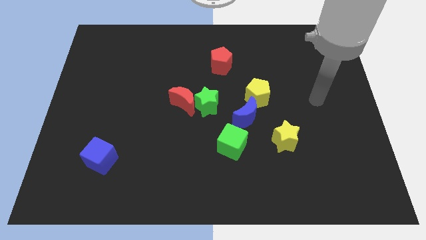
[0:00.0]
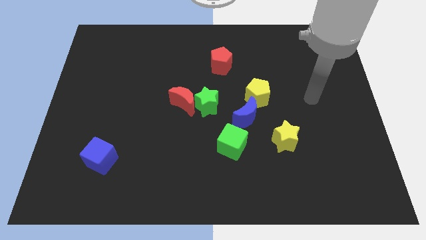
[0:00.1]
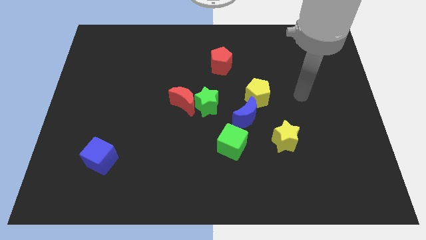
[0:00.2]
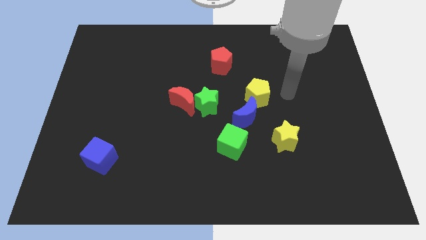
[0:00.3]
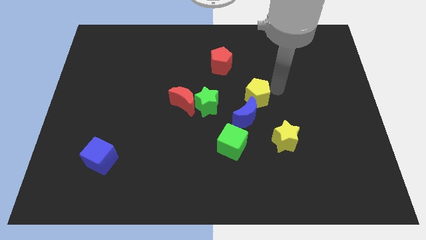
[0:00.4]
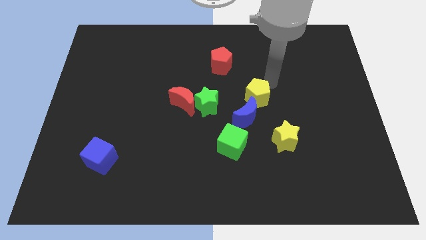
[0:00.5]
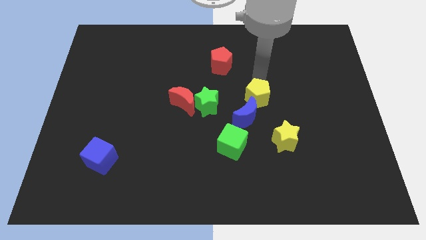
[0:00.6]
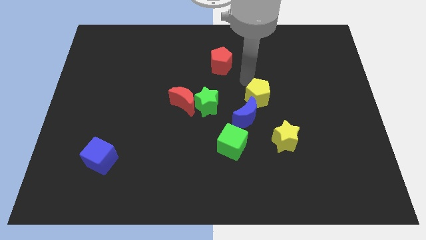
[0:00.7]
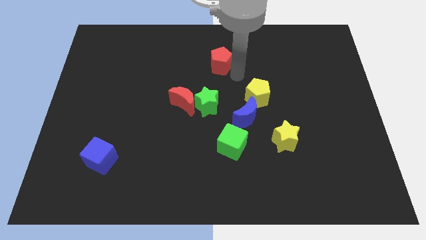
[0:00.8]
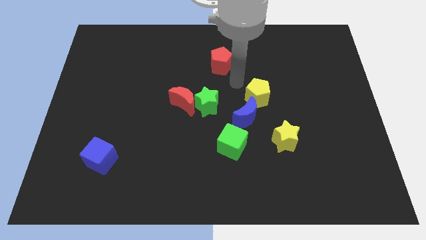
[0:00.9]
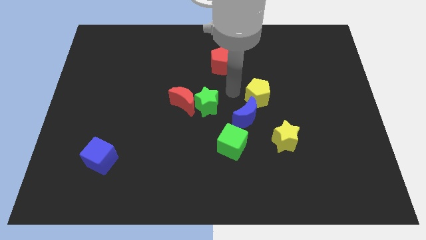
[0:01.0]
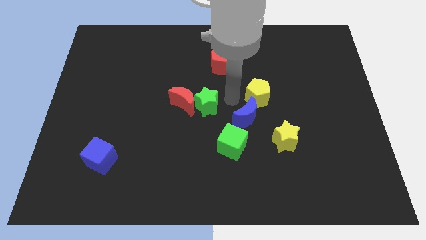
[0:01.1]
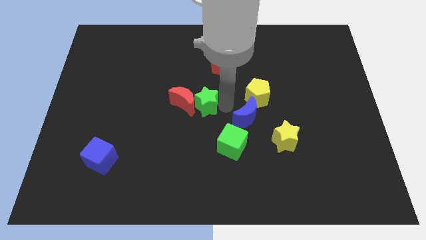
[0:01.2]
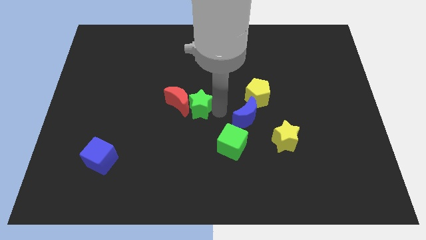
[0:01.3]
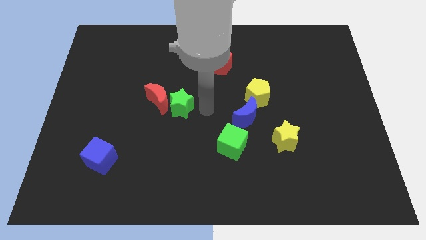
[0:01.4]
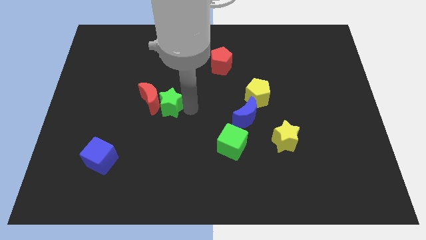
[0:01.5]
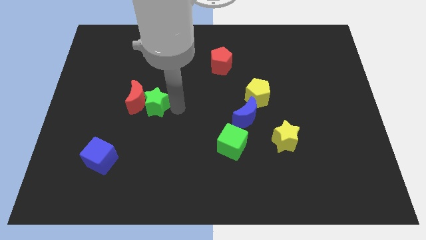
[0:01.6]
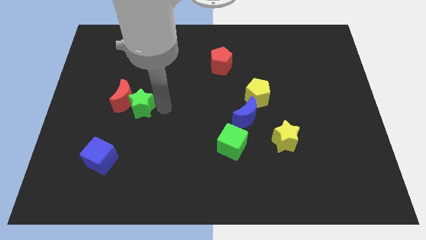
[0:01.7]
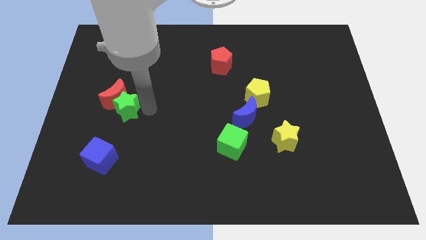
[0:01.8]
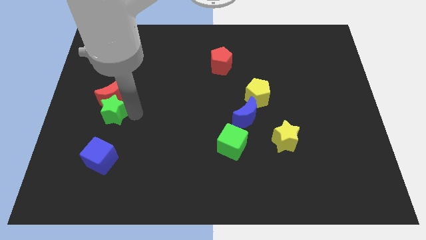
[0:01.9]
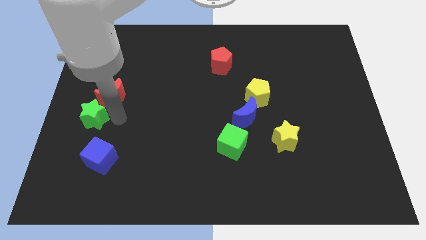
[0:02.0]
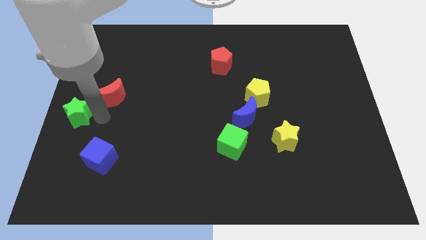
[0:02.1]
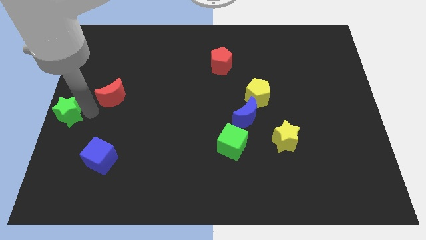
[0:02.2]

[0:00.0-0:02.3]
separate the red moon from the green star

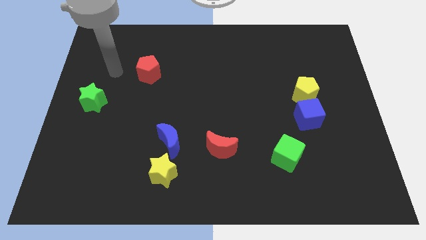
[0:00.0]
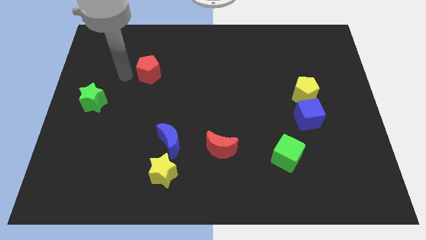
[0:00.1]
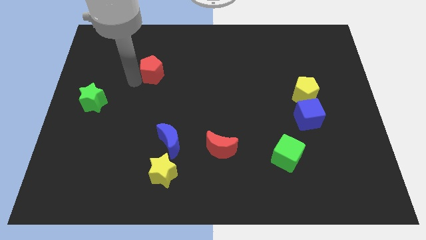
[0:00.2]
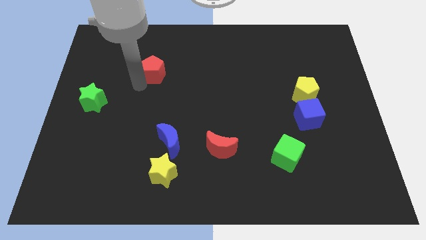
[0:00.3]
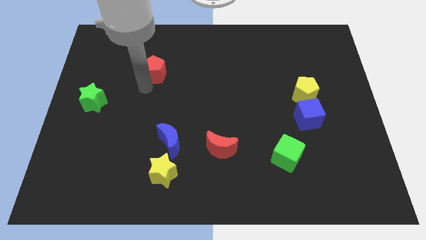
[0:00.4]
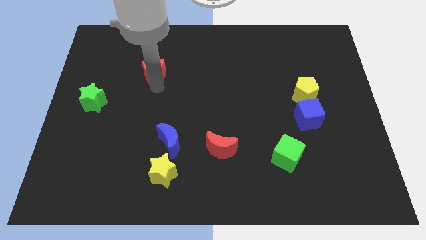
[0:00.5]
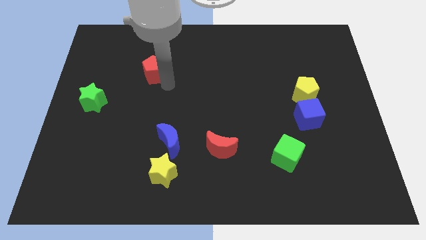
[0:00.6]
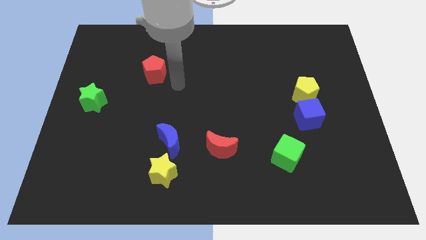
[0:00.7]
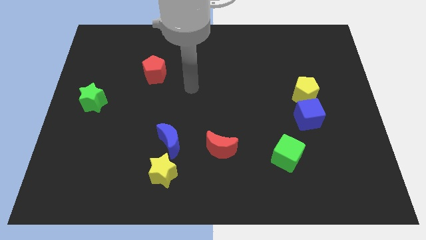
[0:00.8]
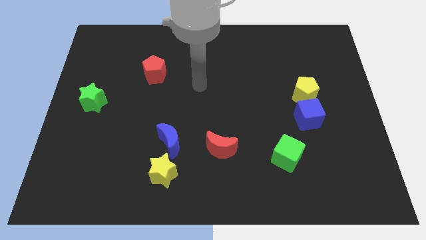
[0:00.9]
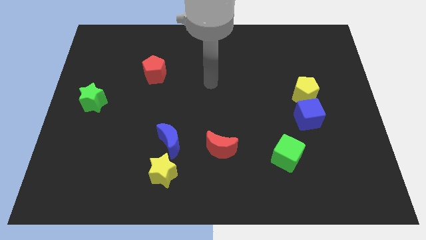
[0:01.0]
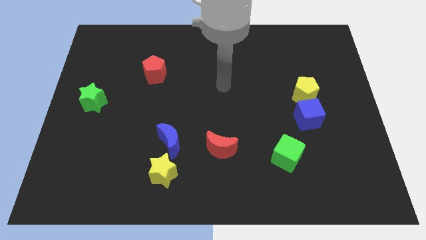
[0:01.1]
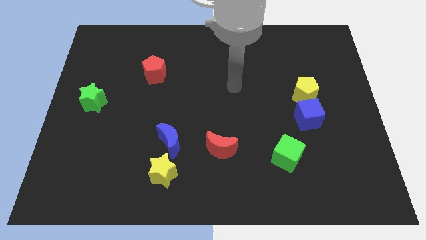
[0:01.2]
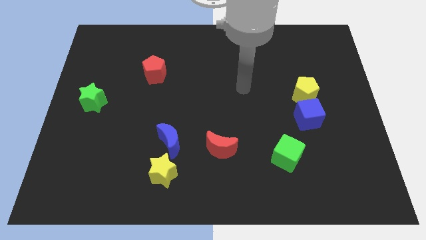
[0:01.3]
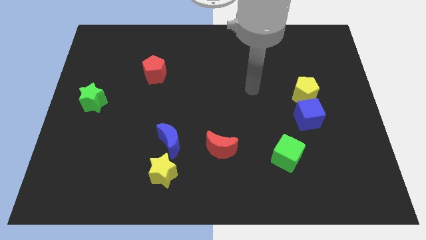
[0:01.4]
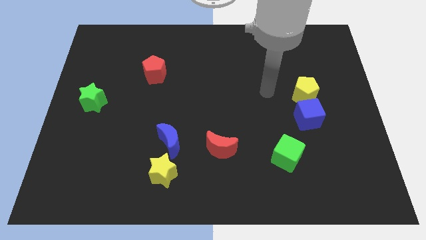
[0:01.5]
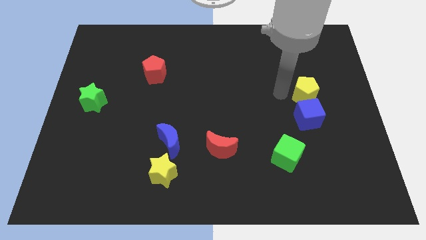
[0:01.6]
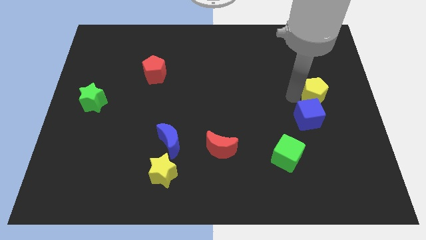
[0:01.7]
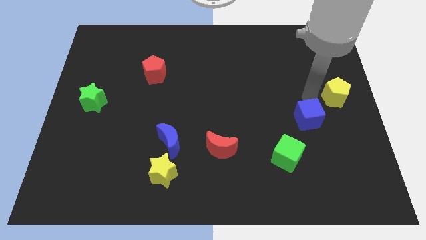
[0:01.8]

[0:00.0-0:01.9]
pull the blue cube apart from the yellow pentagon

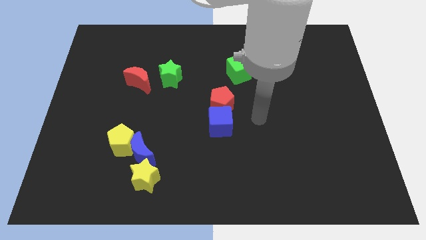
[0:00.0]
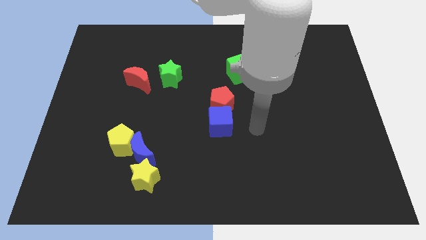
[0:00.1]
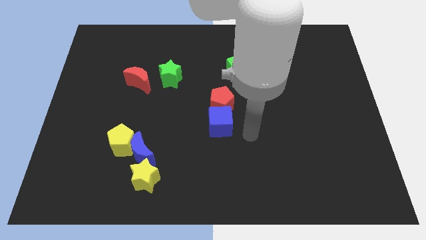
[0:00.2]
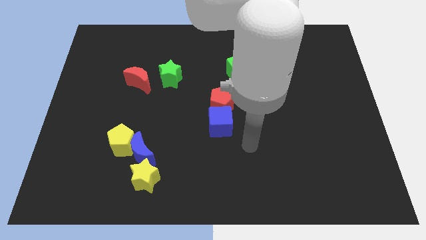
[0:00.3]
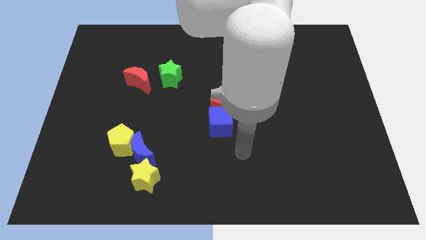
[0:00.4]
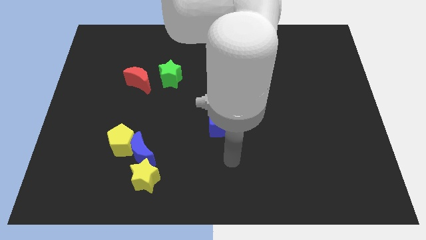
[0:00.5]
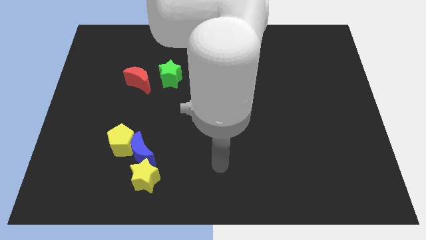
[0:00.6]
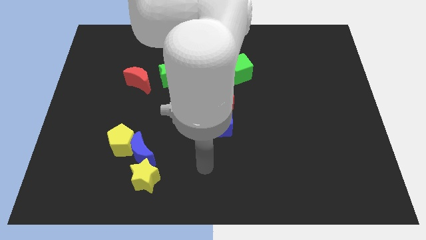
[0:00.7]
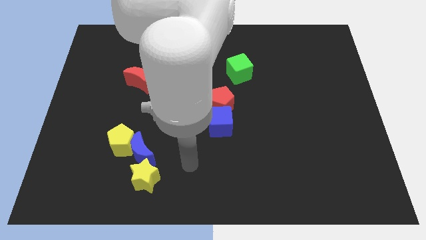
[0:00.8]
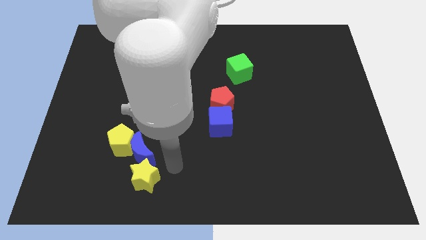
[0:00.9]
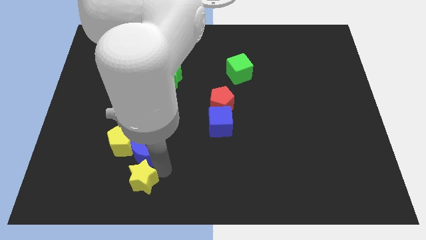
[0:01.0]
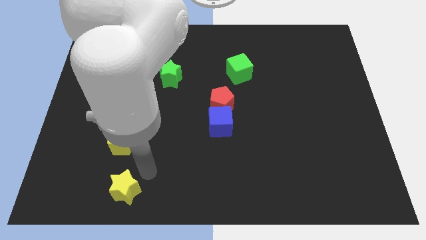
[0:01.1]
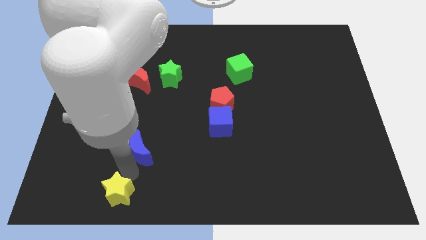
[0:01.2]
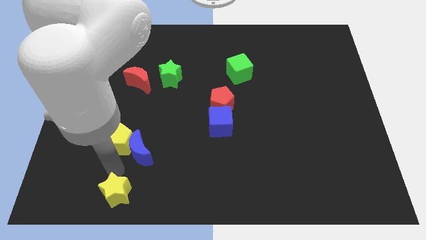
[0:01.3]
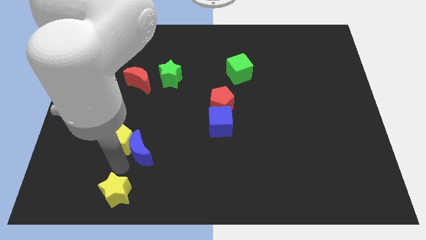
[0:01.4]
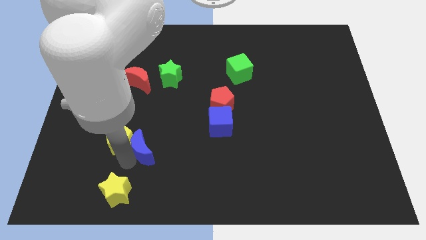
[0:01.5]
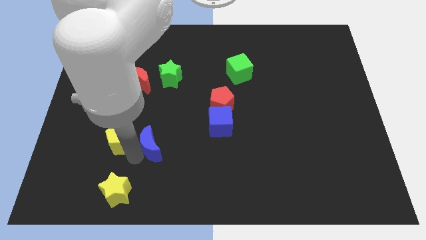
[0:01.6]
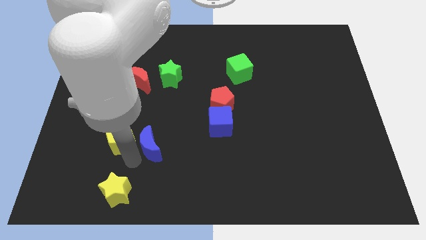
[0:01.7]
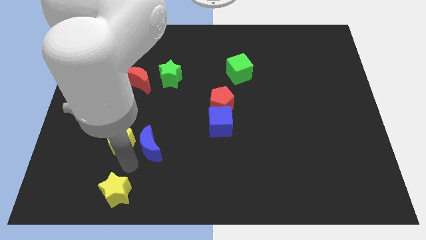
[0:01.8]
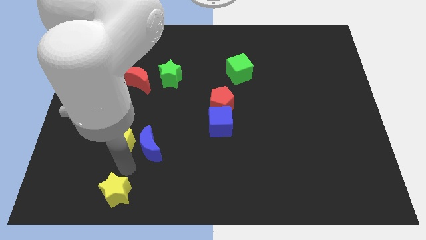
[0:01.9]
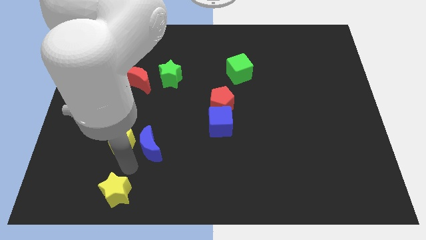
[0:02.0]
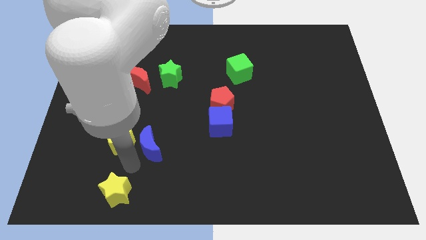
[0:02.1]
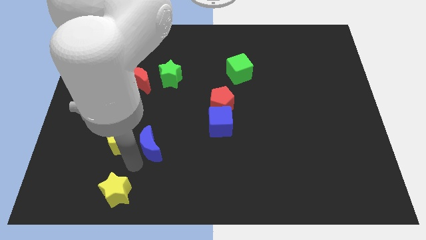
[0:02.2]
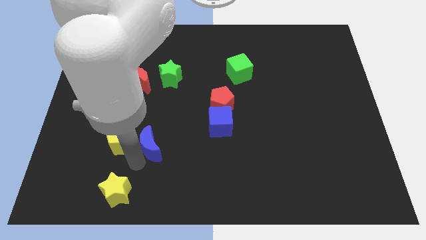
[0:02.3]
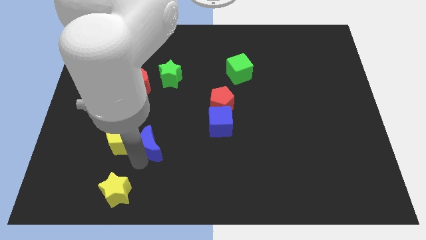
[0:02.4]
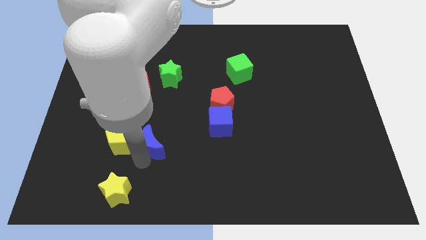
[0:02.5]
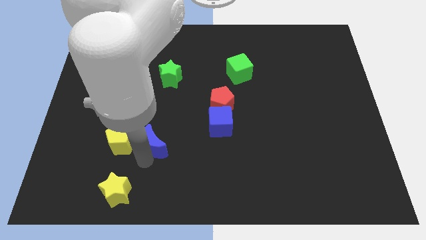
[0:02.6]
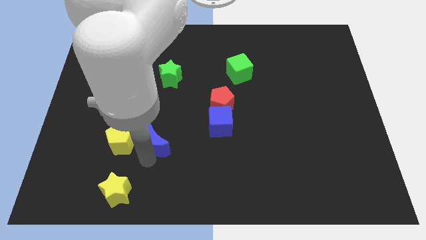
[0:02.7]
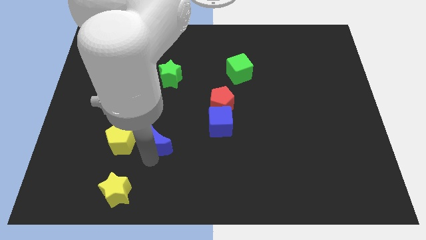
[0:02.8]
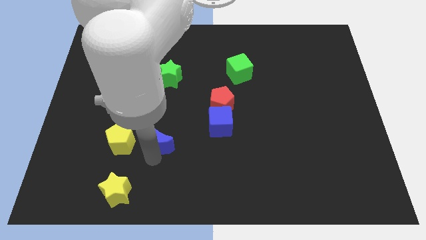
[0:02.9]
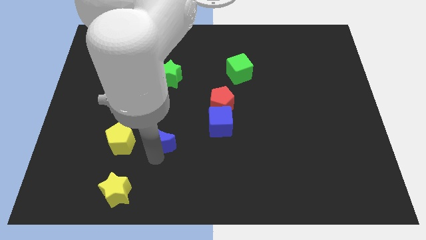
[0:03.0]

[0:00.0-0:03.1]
move the blue moon away from the yellow pentagon and yellow star

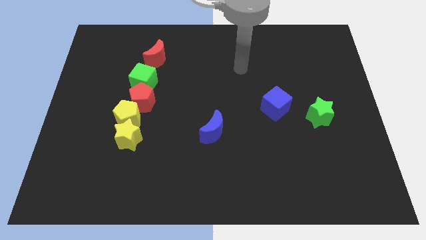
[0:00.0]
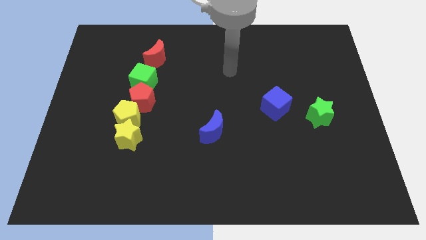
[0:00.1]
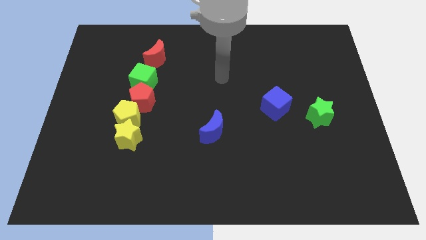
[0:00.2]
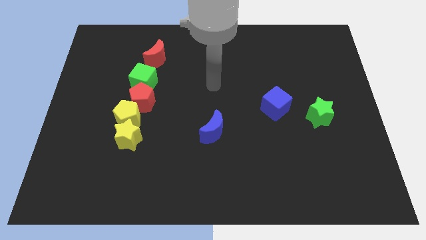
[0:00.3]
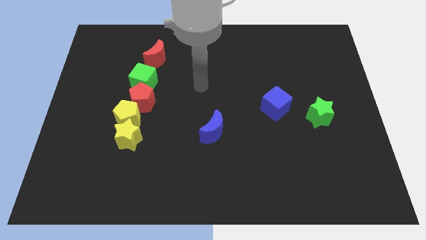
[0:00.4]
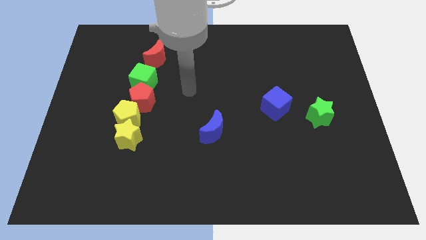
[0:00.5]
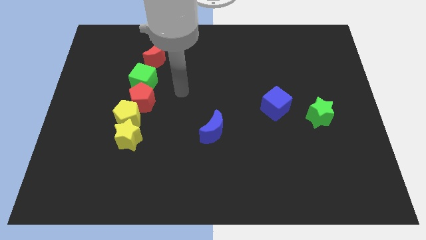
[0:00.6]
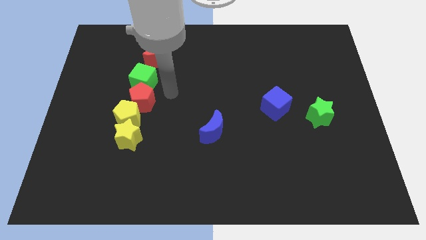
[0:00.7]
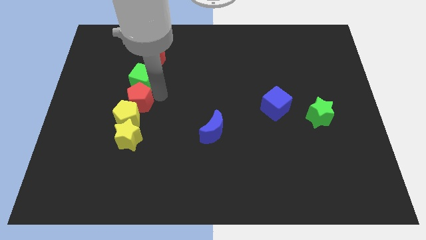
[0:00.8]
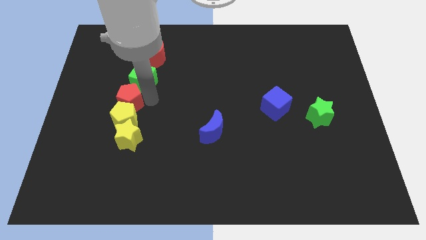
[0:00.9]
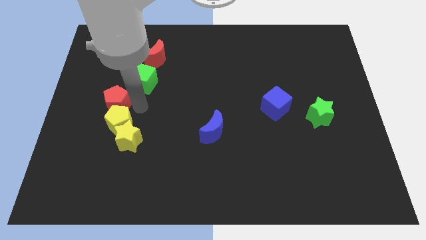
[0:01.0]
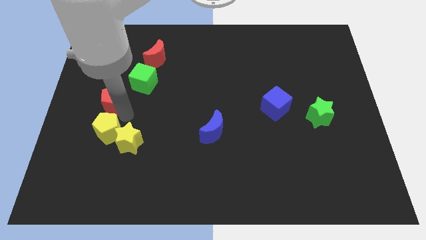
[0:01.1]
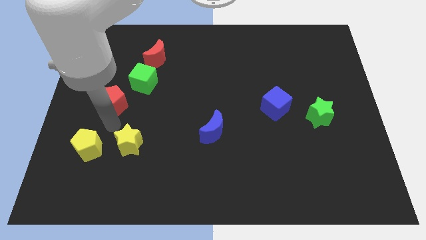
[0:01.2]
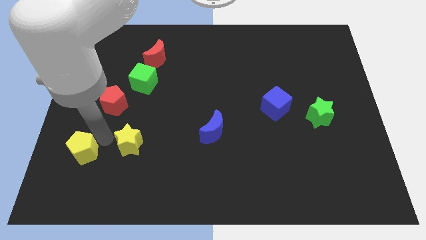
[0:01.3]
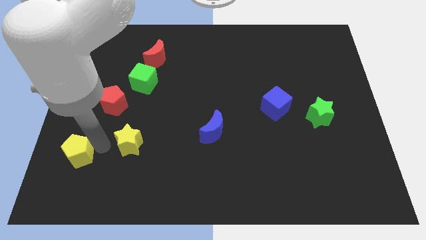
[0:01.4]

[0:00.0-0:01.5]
pull the yellow star apart from the yellow pentagon

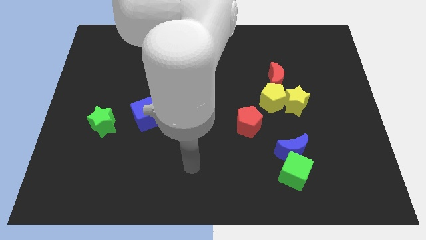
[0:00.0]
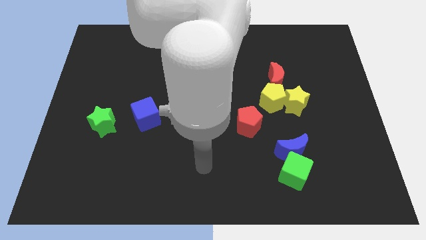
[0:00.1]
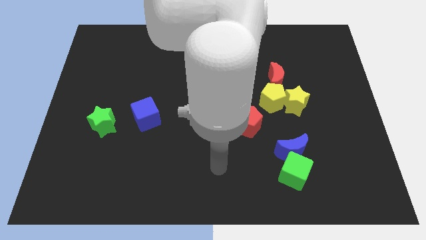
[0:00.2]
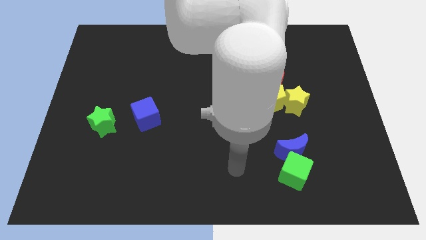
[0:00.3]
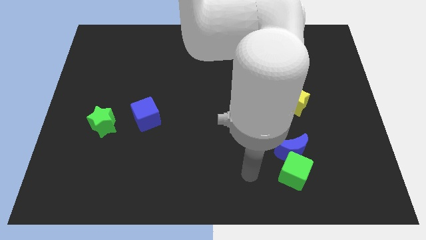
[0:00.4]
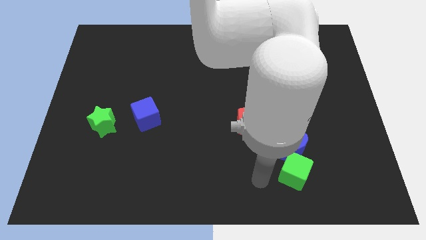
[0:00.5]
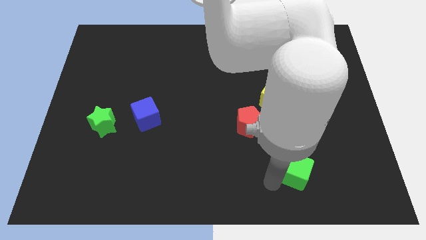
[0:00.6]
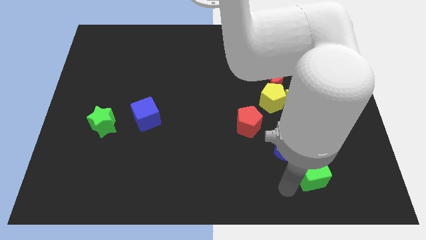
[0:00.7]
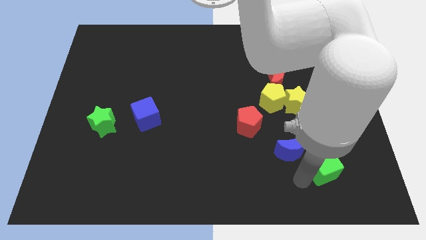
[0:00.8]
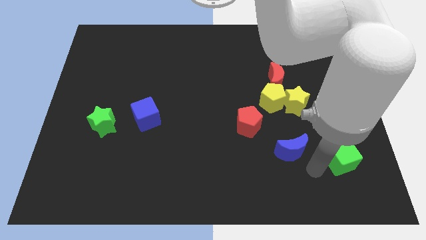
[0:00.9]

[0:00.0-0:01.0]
move the blue moon away from the green cube
